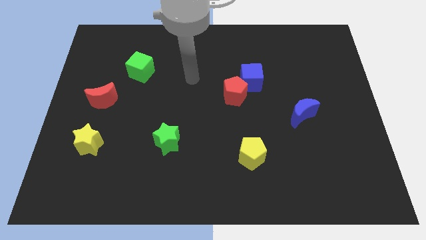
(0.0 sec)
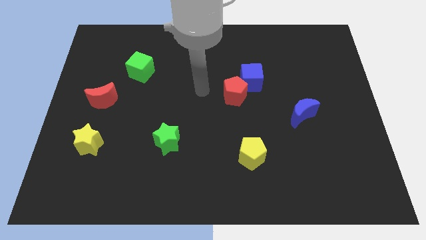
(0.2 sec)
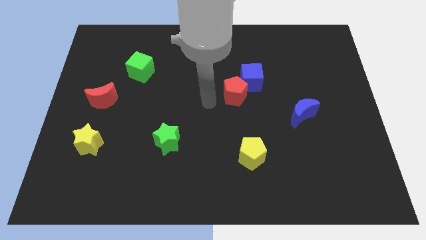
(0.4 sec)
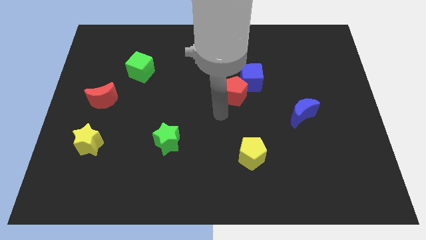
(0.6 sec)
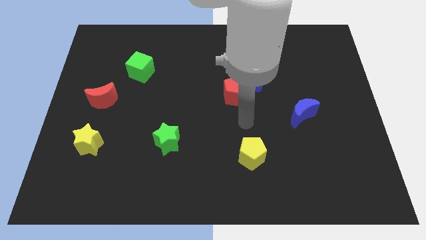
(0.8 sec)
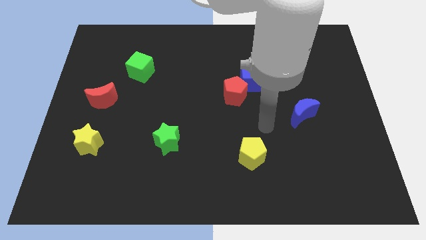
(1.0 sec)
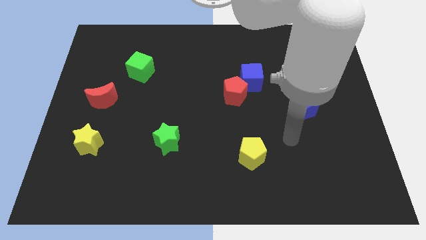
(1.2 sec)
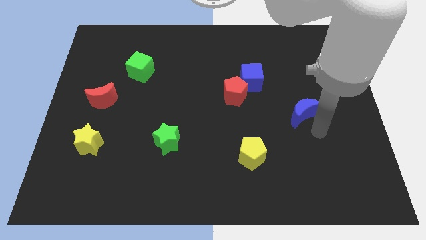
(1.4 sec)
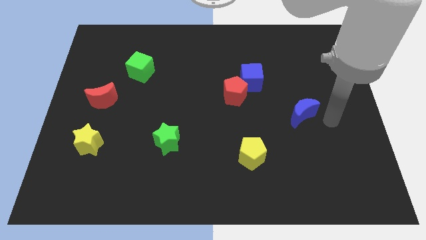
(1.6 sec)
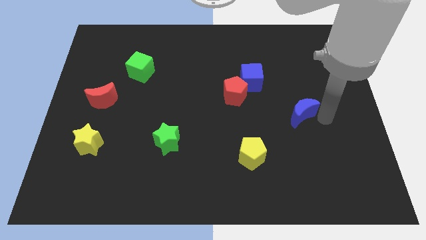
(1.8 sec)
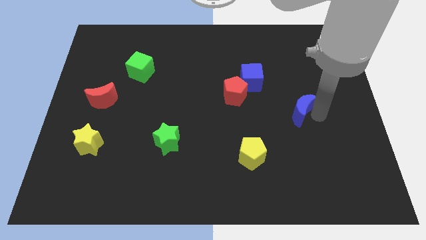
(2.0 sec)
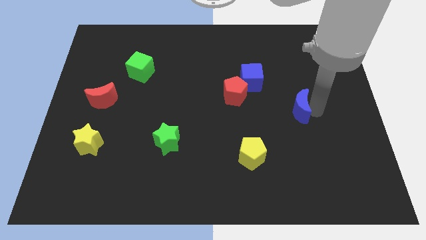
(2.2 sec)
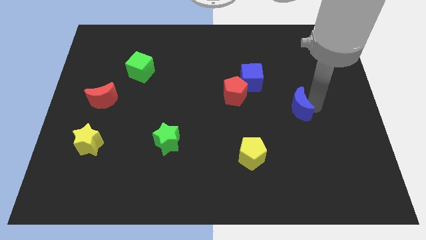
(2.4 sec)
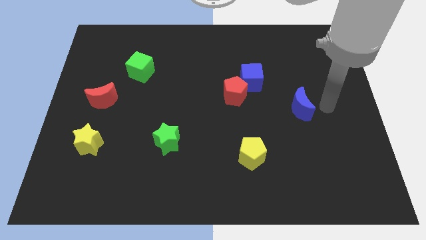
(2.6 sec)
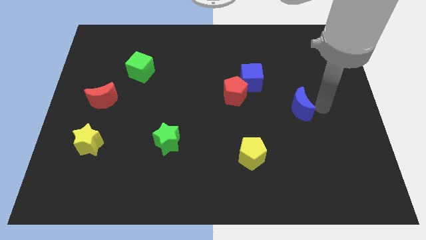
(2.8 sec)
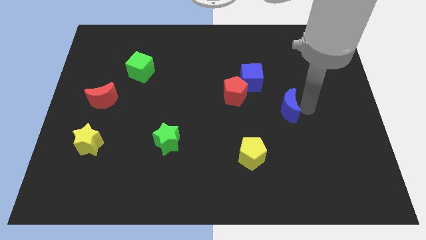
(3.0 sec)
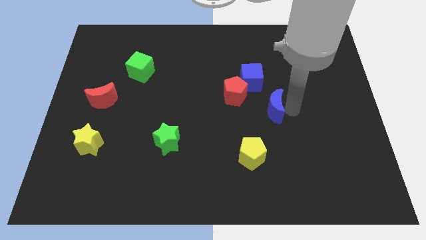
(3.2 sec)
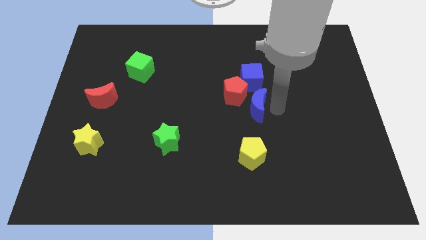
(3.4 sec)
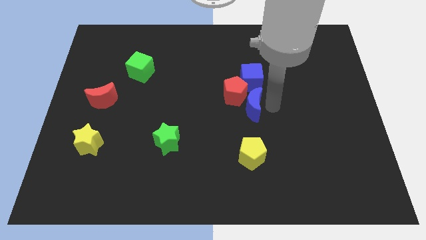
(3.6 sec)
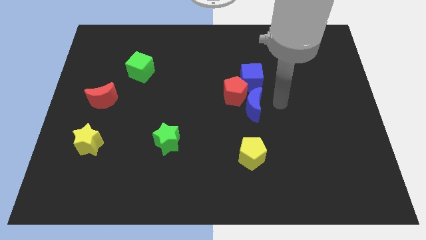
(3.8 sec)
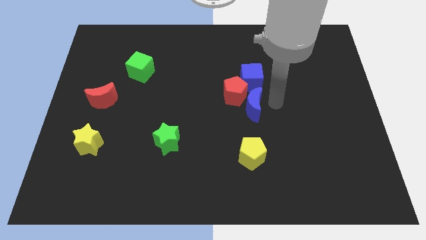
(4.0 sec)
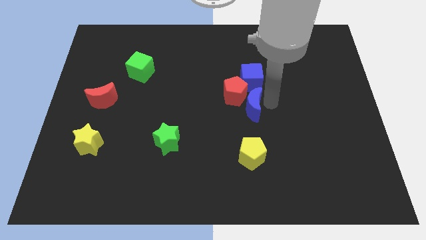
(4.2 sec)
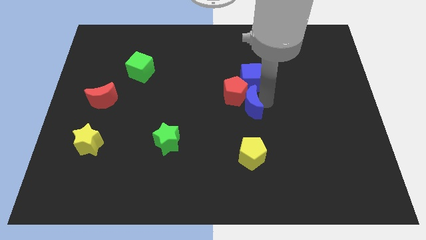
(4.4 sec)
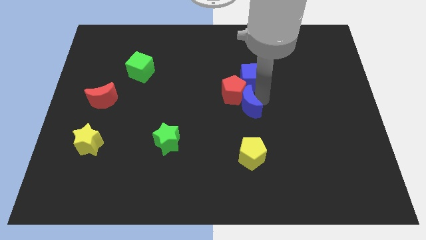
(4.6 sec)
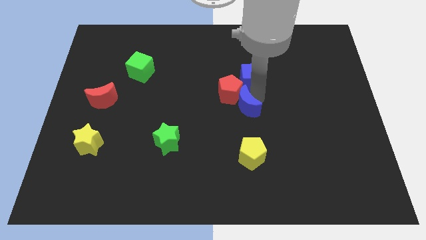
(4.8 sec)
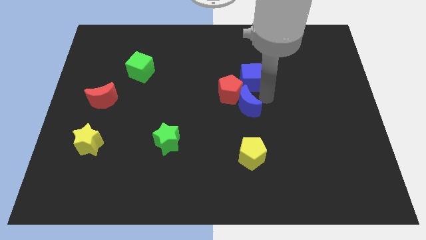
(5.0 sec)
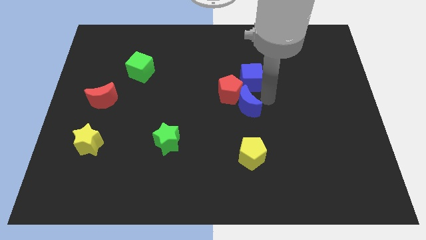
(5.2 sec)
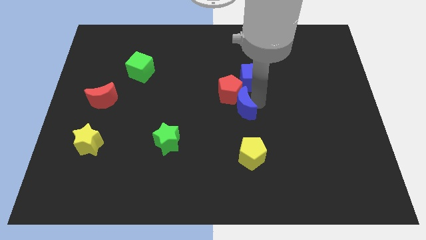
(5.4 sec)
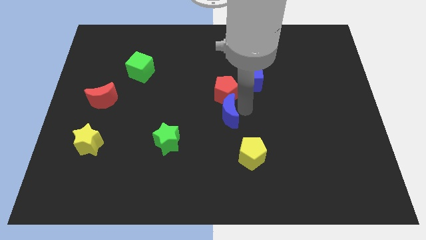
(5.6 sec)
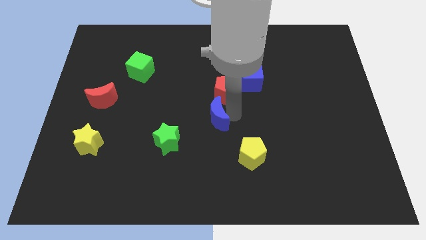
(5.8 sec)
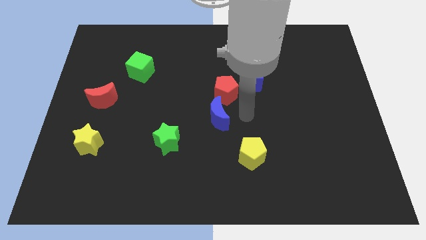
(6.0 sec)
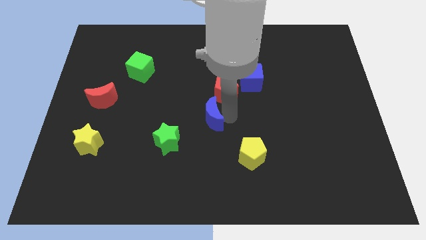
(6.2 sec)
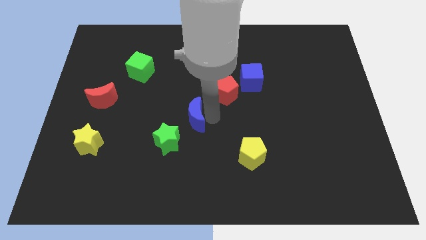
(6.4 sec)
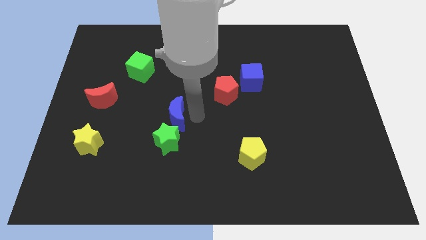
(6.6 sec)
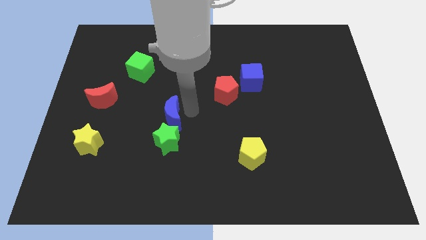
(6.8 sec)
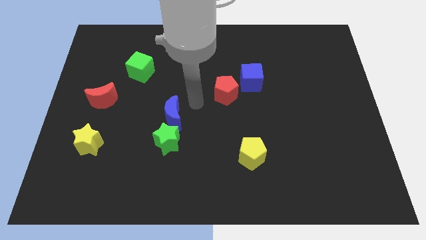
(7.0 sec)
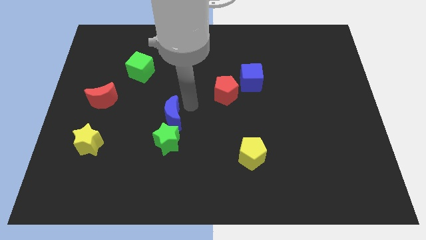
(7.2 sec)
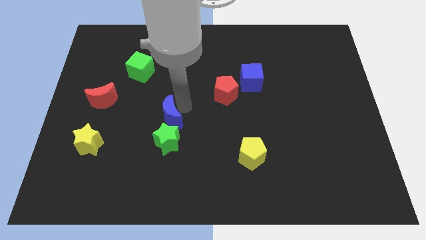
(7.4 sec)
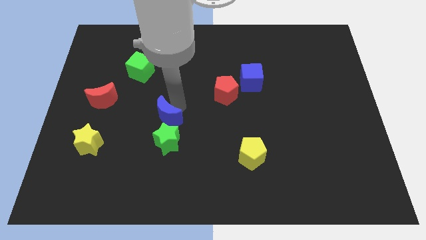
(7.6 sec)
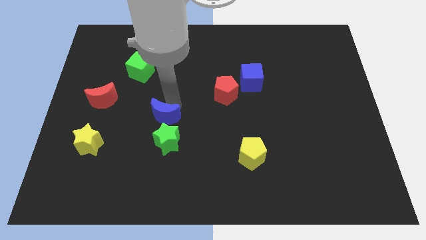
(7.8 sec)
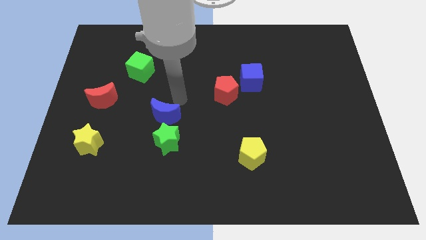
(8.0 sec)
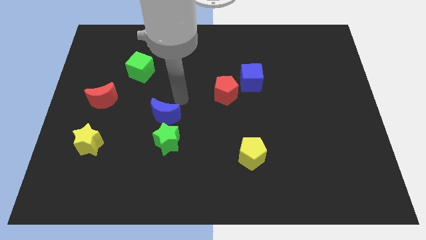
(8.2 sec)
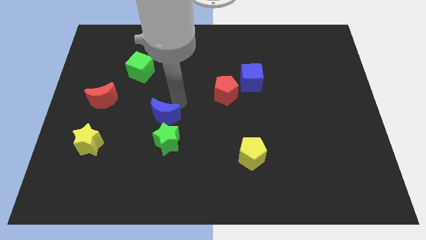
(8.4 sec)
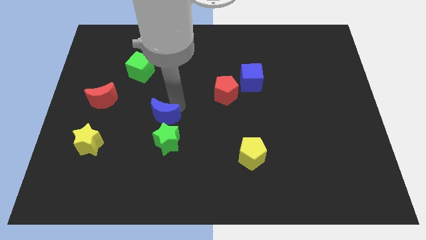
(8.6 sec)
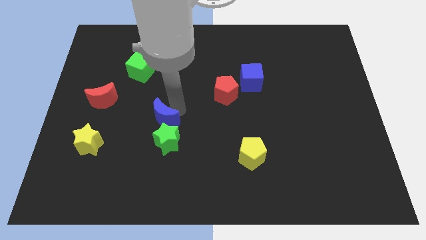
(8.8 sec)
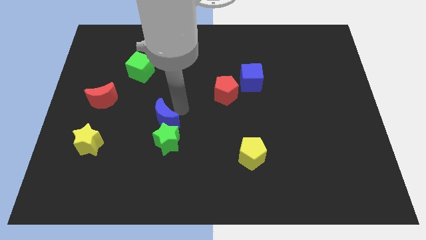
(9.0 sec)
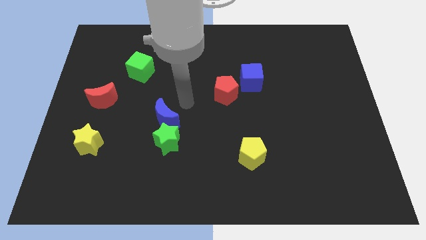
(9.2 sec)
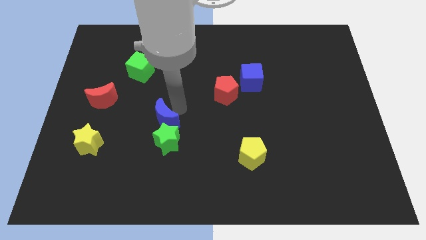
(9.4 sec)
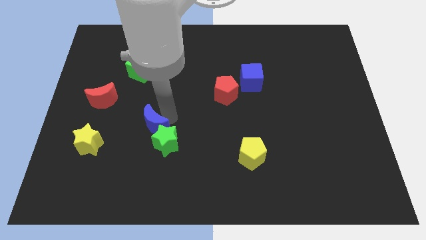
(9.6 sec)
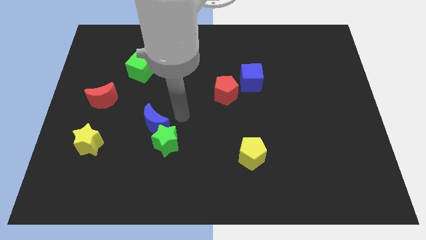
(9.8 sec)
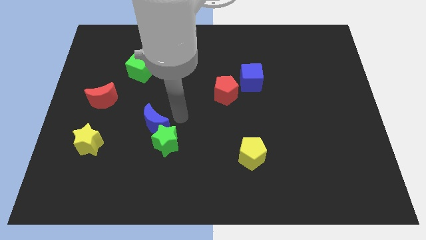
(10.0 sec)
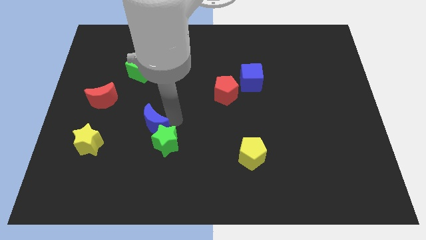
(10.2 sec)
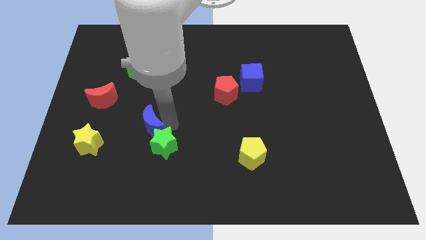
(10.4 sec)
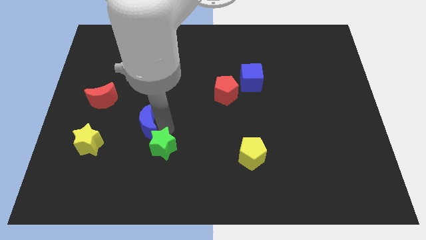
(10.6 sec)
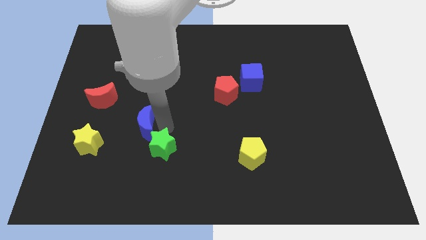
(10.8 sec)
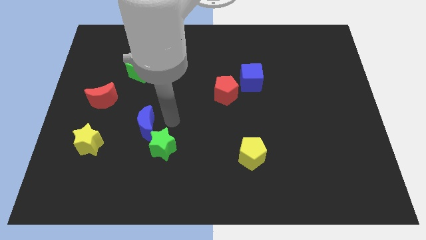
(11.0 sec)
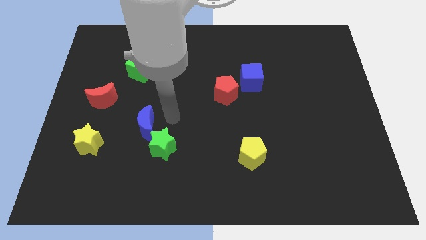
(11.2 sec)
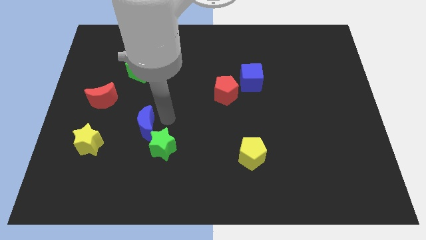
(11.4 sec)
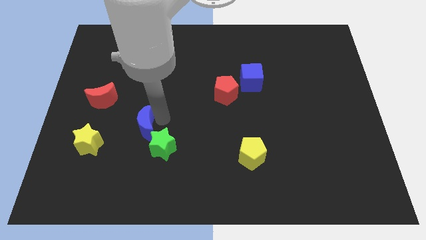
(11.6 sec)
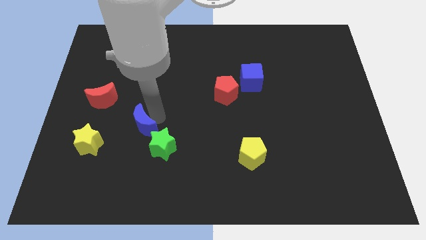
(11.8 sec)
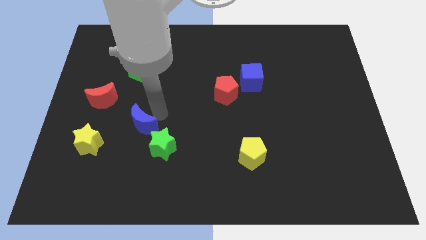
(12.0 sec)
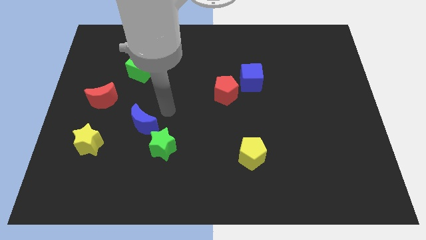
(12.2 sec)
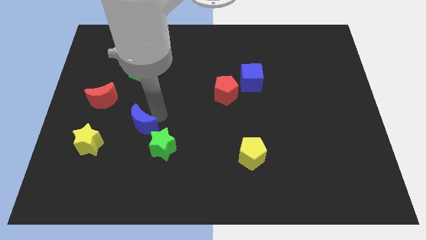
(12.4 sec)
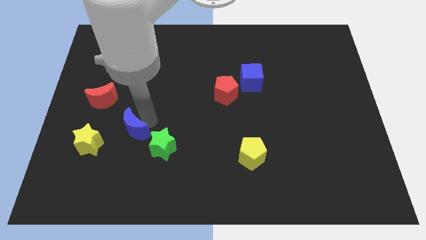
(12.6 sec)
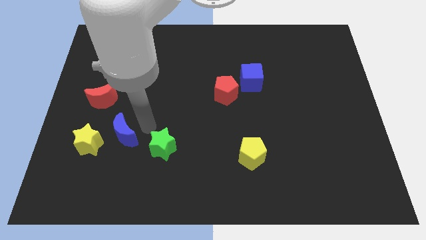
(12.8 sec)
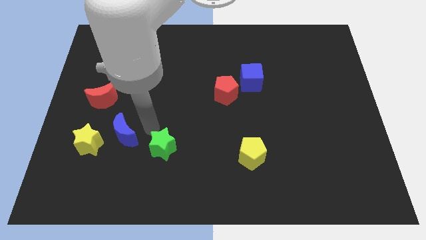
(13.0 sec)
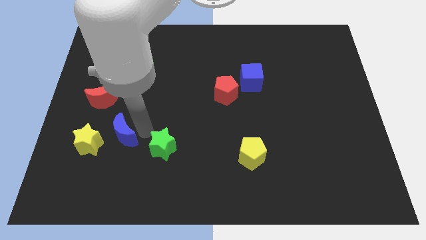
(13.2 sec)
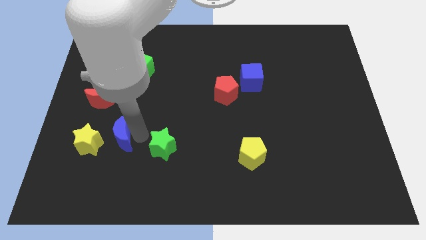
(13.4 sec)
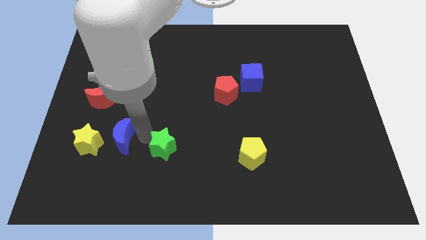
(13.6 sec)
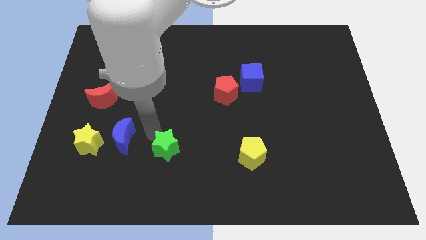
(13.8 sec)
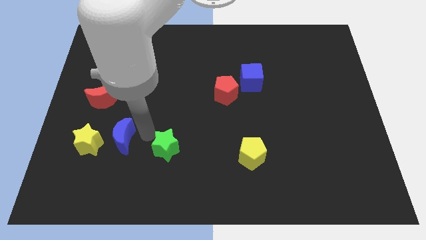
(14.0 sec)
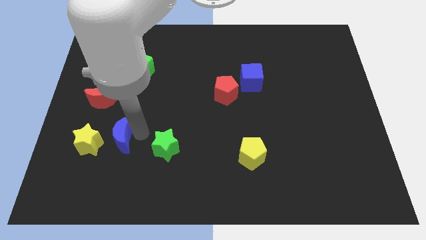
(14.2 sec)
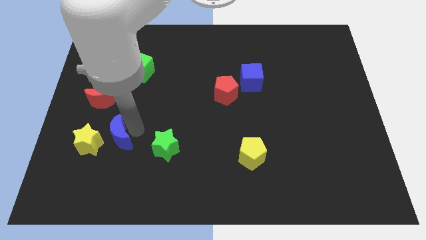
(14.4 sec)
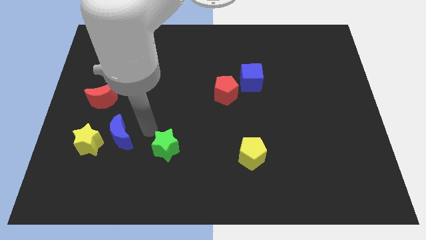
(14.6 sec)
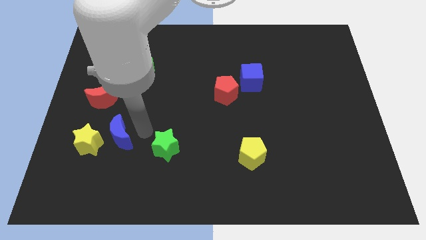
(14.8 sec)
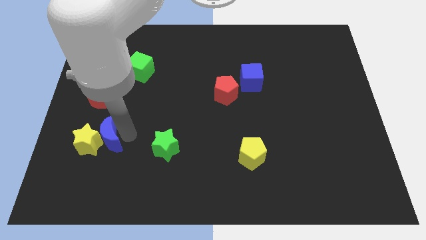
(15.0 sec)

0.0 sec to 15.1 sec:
put the blue moon next to the yellow star

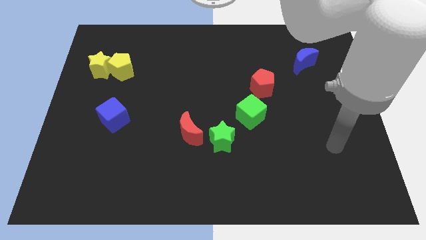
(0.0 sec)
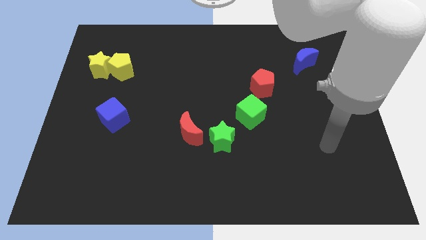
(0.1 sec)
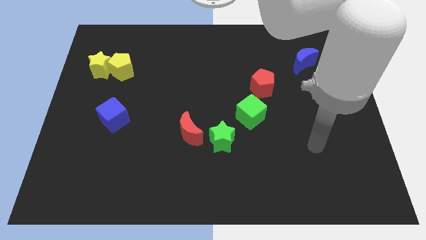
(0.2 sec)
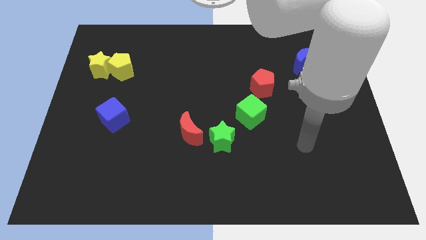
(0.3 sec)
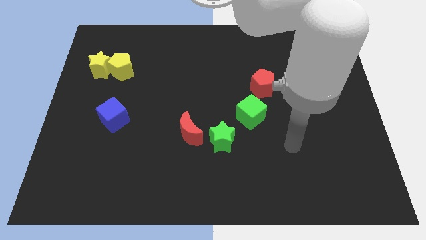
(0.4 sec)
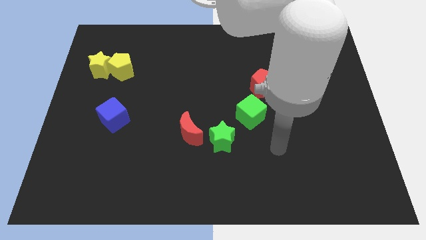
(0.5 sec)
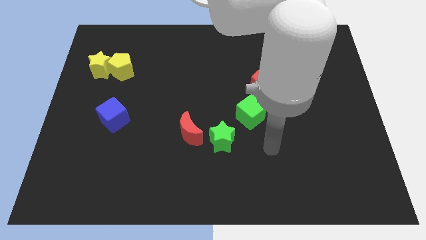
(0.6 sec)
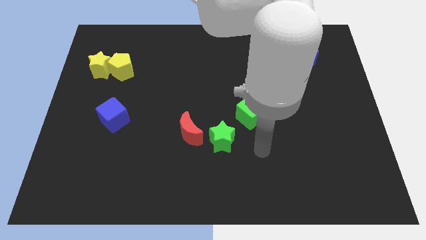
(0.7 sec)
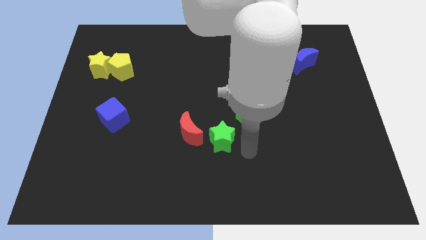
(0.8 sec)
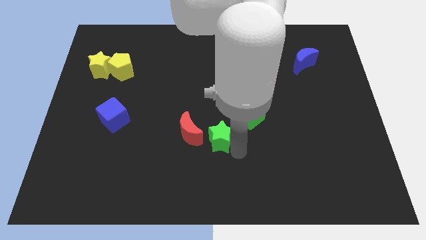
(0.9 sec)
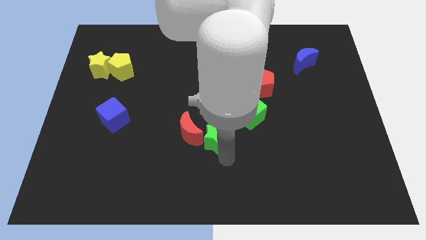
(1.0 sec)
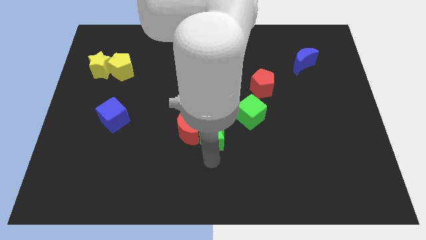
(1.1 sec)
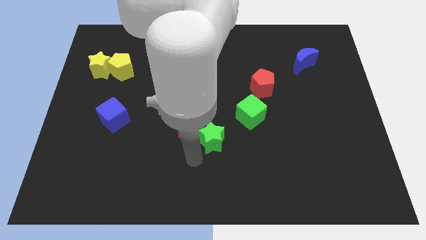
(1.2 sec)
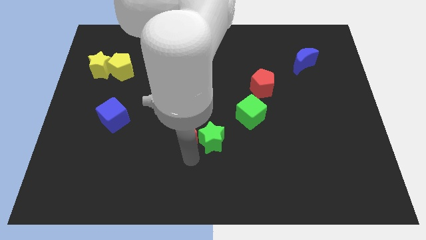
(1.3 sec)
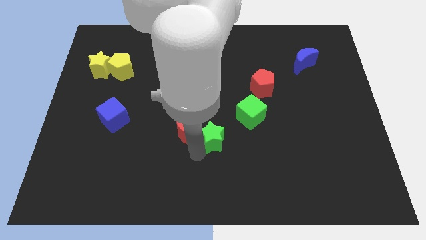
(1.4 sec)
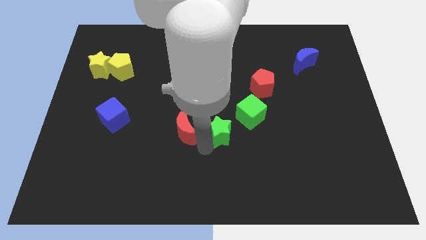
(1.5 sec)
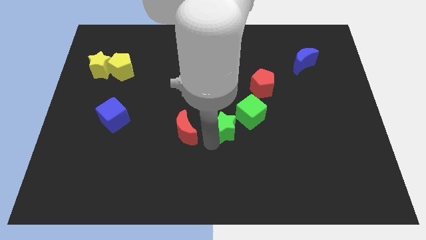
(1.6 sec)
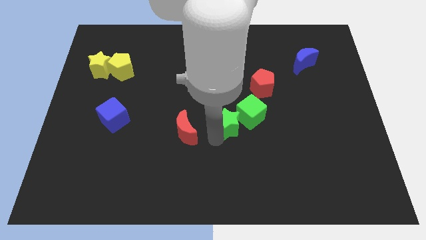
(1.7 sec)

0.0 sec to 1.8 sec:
slide the green star towards the green cube
